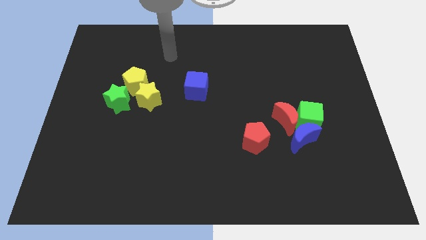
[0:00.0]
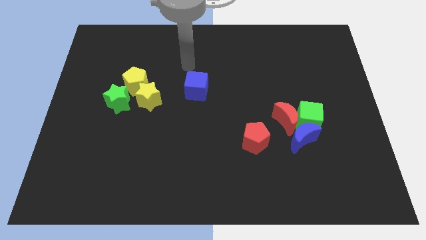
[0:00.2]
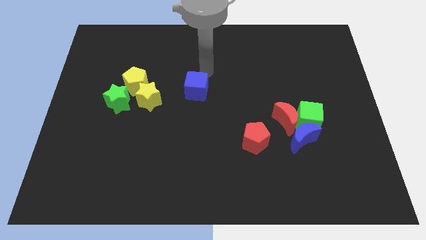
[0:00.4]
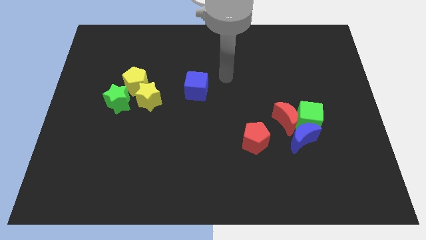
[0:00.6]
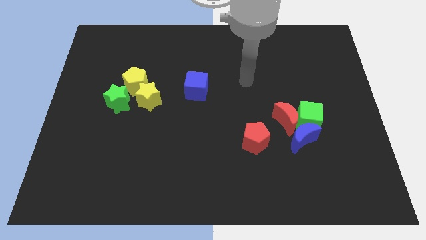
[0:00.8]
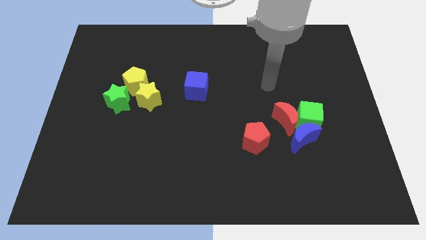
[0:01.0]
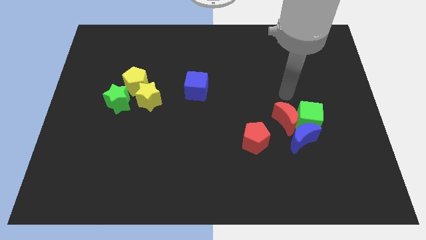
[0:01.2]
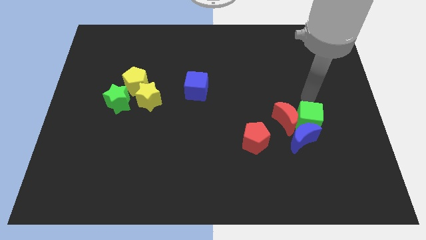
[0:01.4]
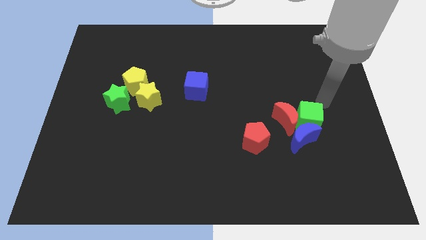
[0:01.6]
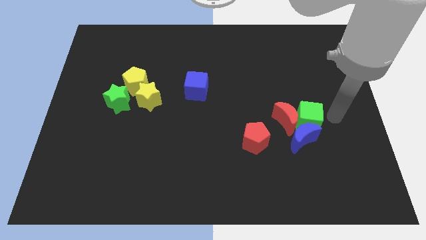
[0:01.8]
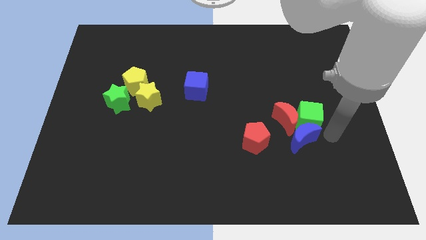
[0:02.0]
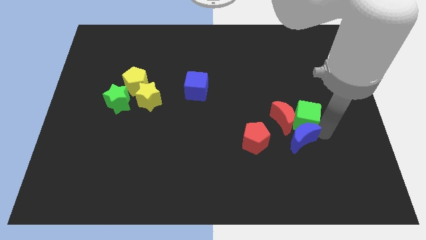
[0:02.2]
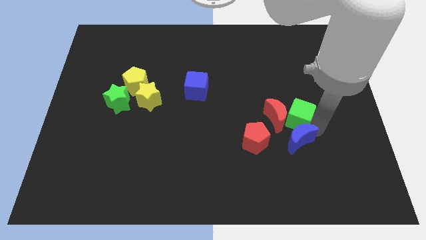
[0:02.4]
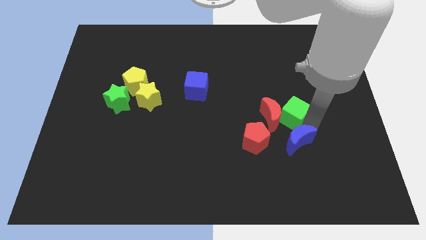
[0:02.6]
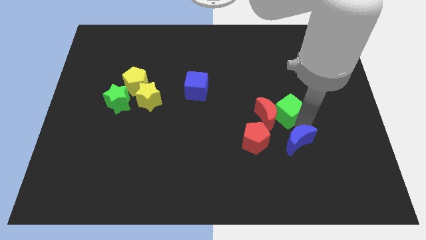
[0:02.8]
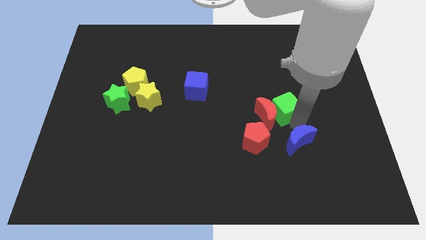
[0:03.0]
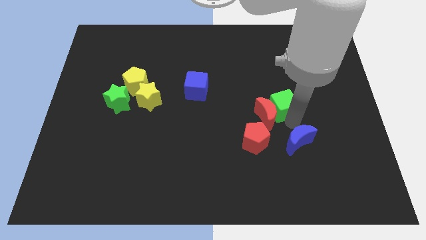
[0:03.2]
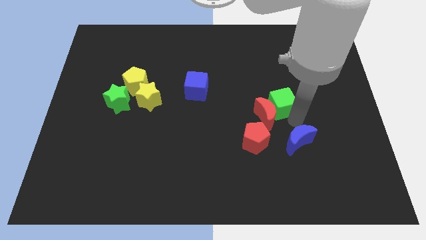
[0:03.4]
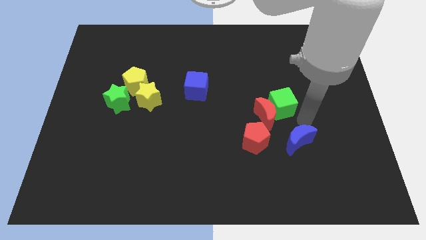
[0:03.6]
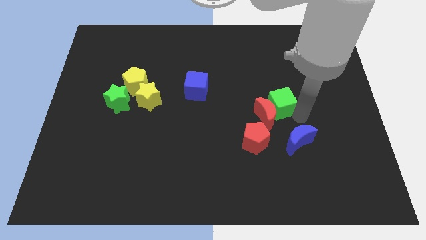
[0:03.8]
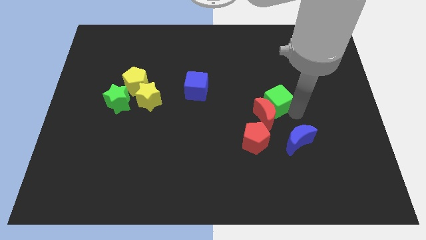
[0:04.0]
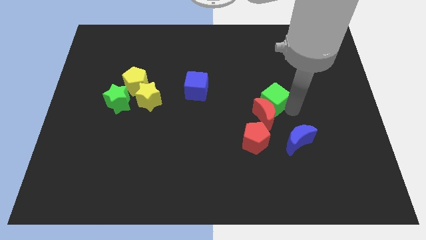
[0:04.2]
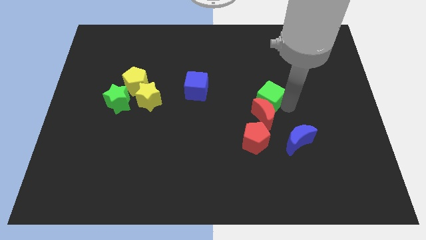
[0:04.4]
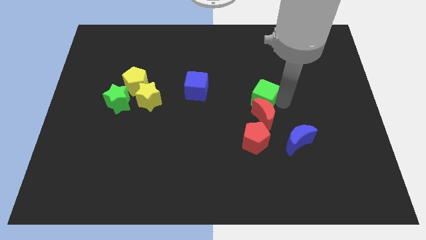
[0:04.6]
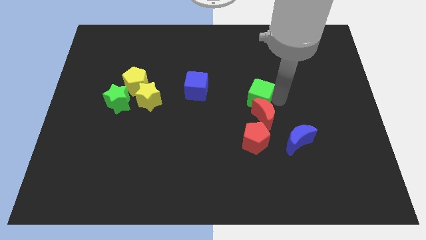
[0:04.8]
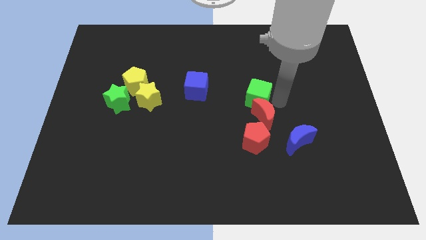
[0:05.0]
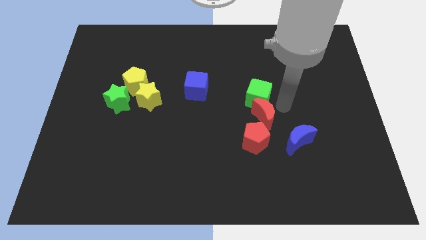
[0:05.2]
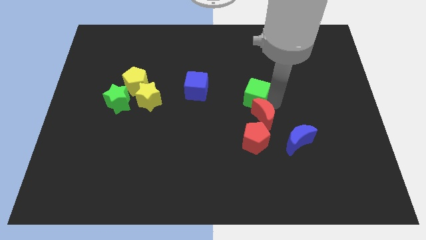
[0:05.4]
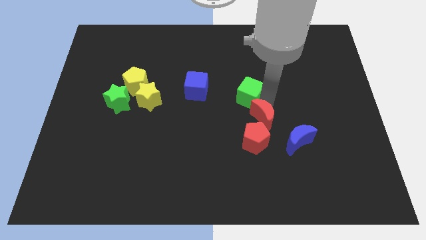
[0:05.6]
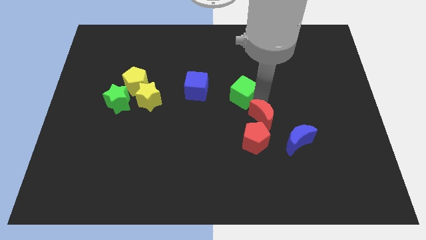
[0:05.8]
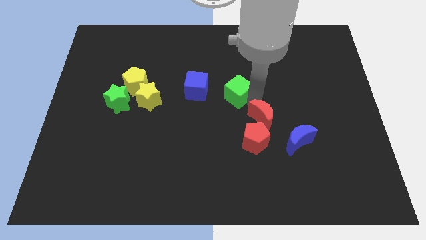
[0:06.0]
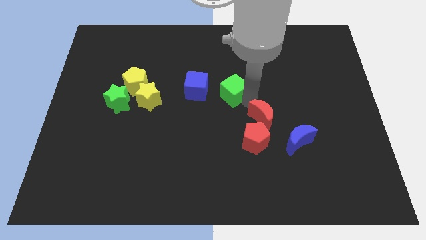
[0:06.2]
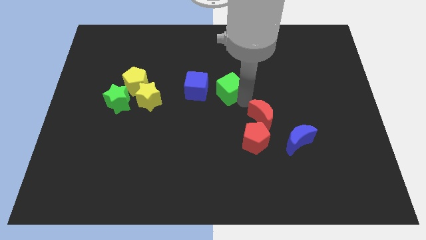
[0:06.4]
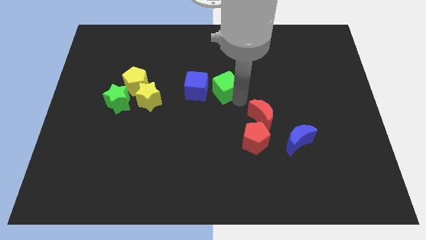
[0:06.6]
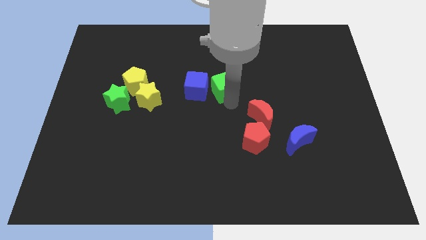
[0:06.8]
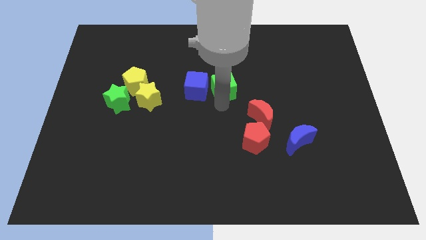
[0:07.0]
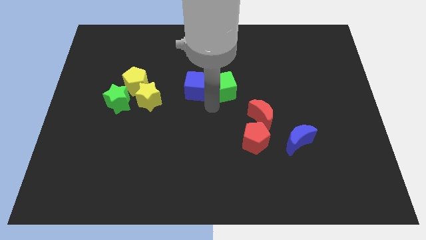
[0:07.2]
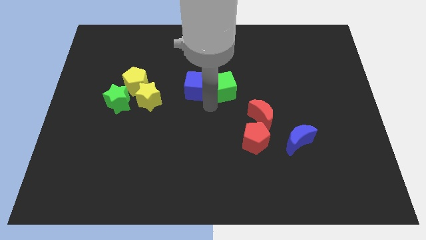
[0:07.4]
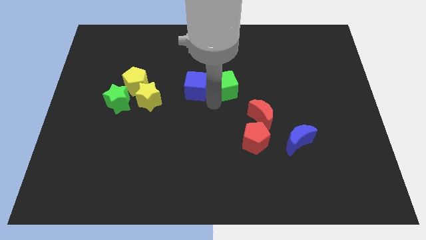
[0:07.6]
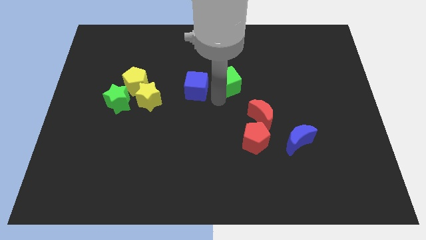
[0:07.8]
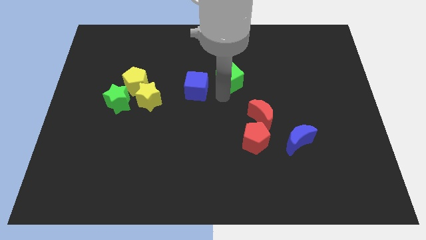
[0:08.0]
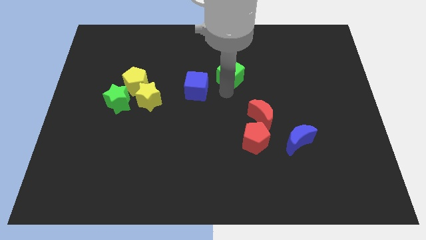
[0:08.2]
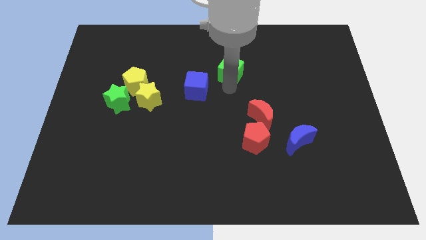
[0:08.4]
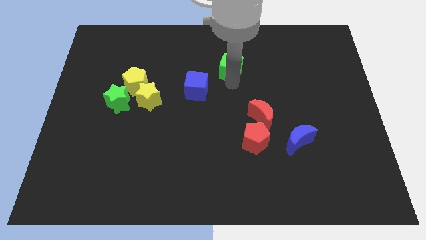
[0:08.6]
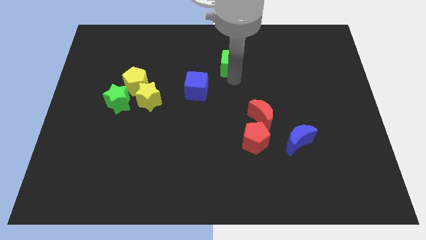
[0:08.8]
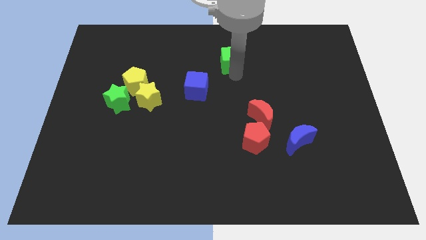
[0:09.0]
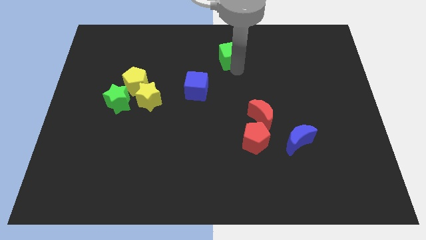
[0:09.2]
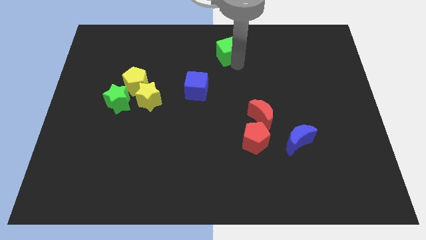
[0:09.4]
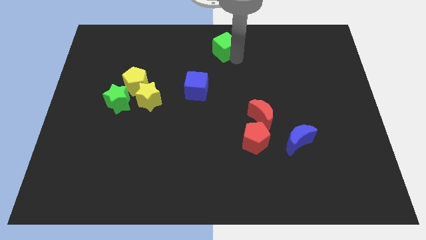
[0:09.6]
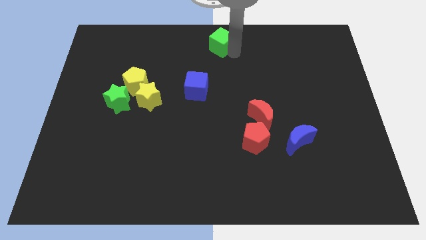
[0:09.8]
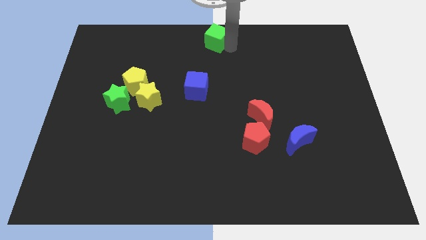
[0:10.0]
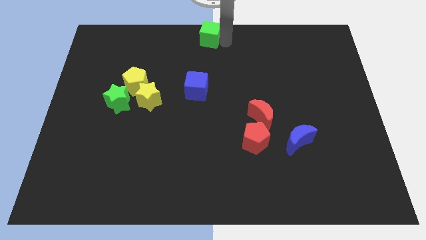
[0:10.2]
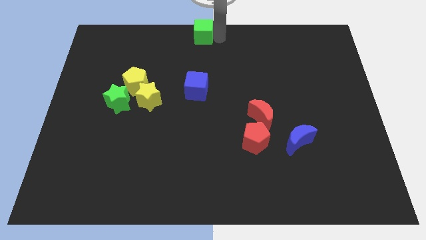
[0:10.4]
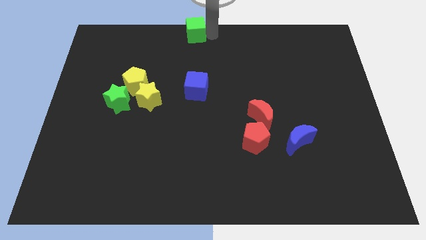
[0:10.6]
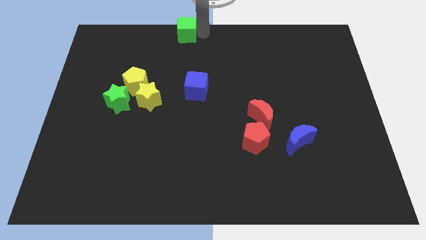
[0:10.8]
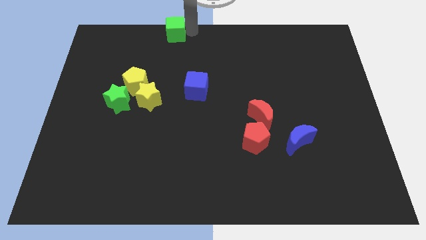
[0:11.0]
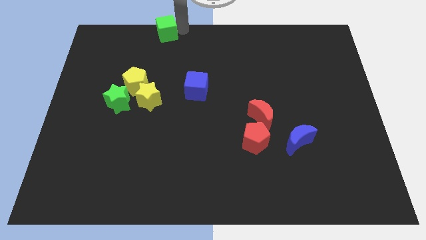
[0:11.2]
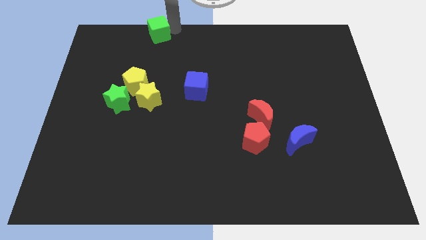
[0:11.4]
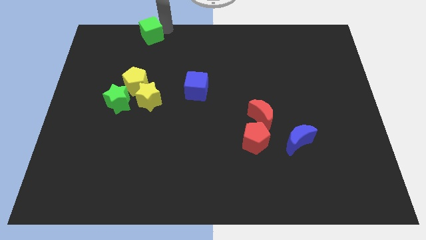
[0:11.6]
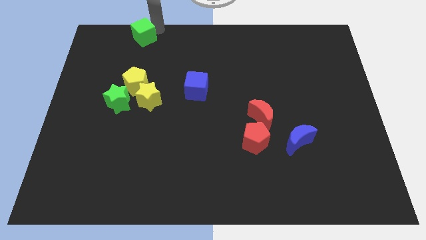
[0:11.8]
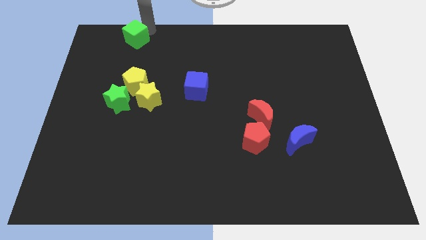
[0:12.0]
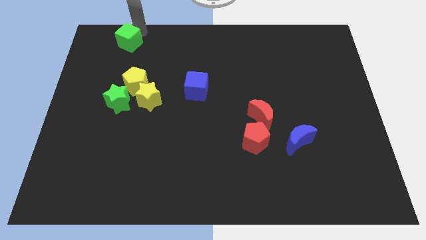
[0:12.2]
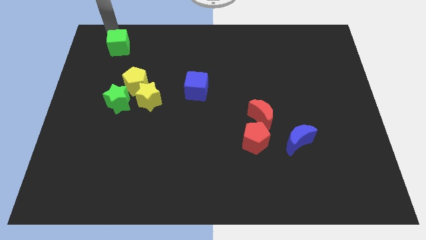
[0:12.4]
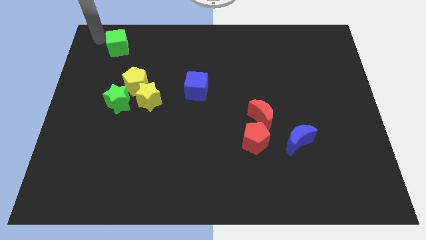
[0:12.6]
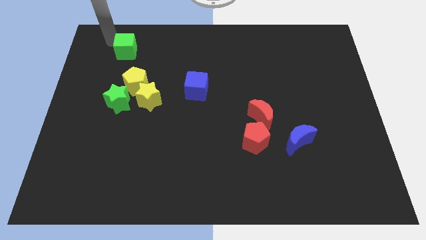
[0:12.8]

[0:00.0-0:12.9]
move the green cube to the top side of the yellow pentagon
